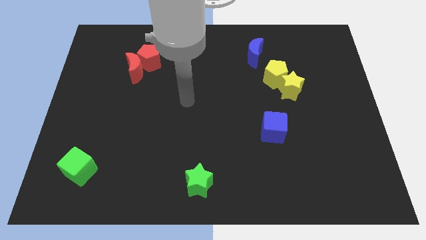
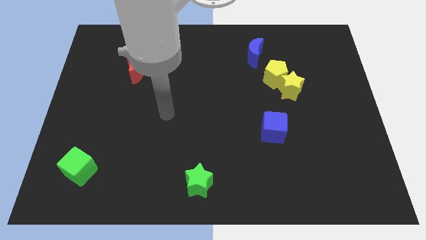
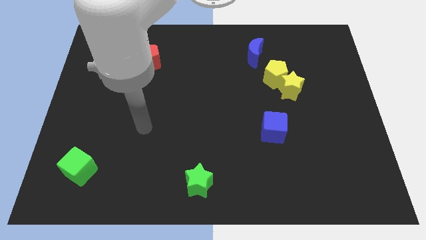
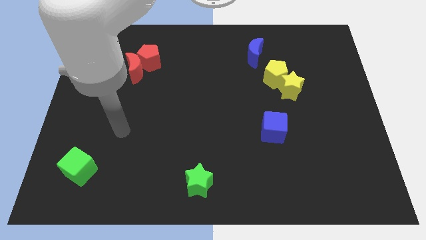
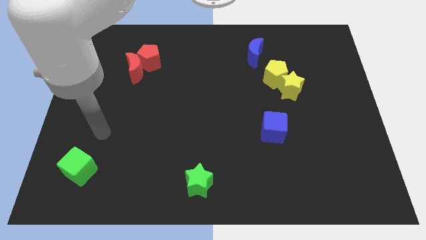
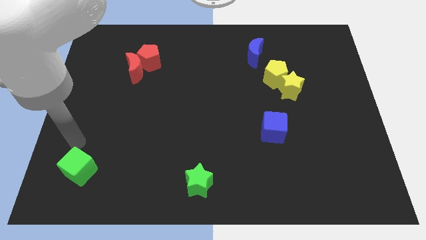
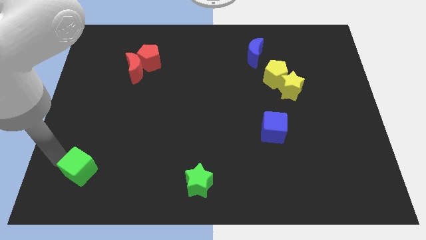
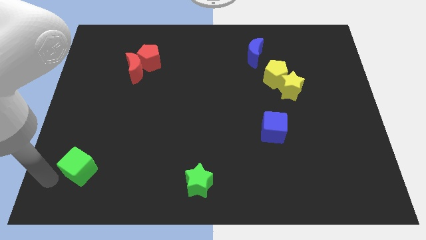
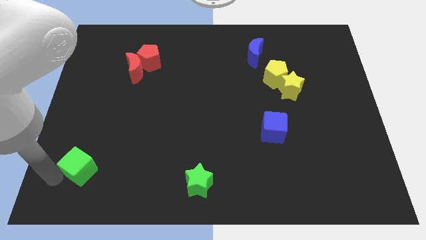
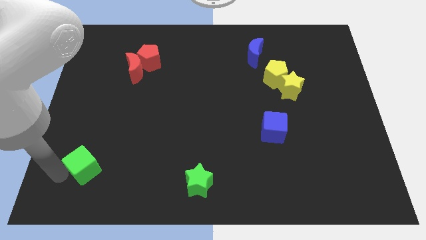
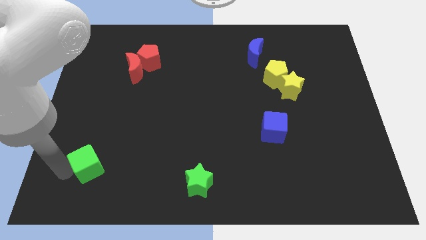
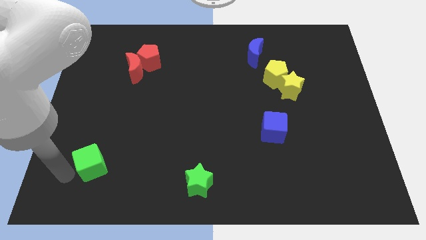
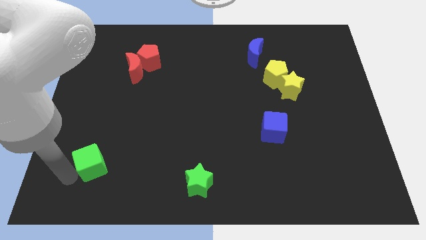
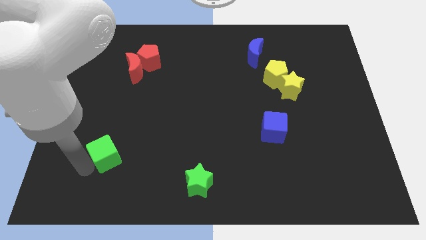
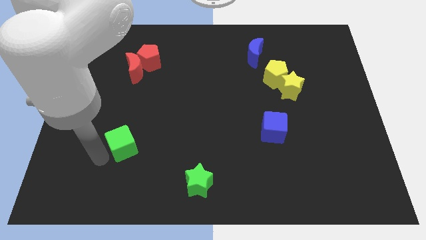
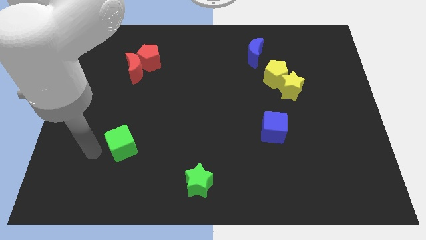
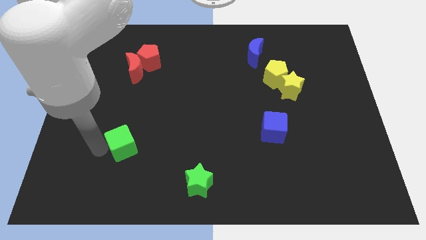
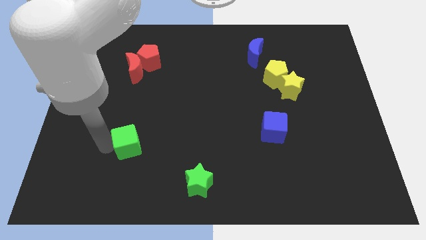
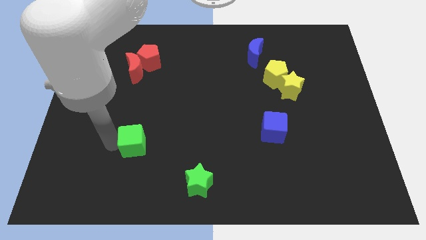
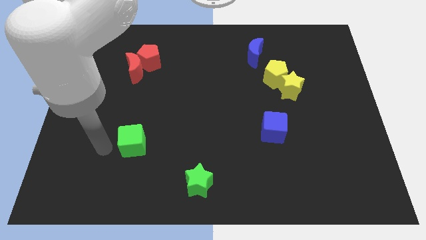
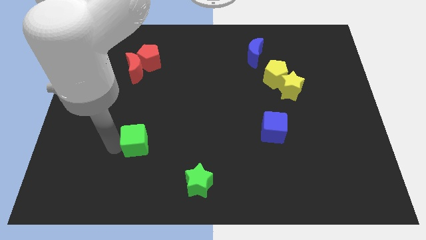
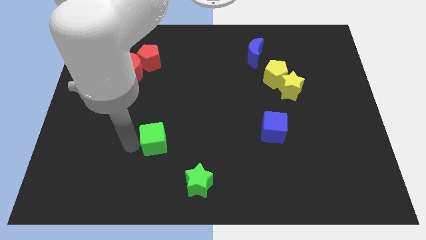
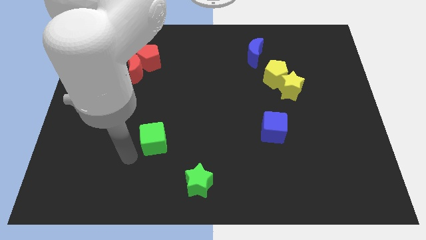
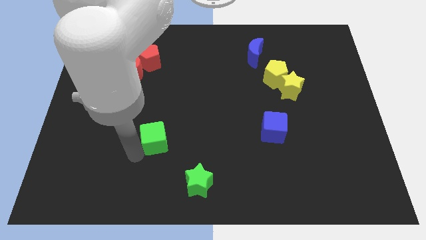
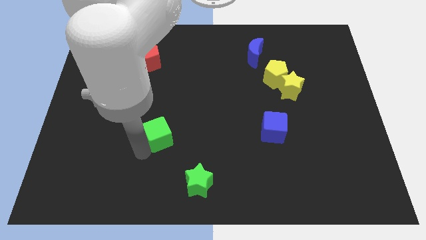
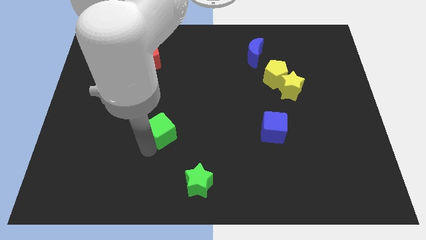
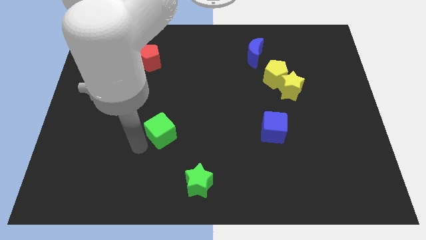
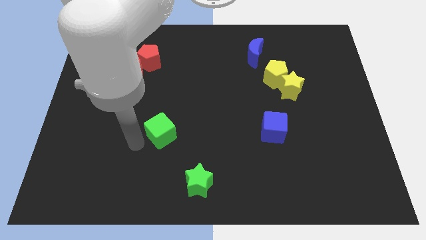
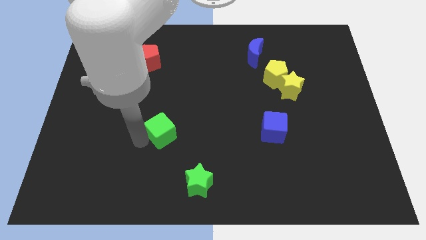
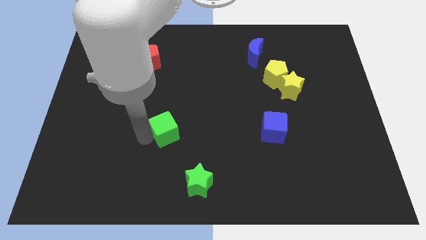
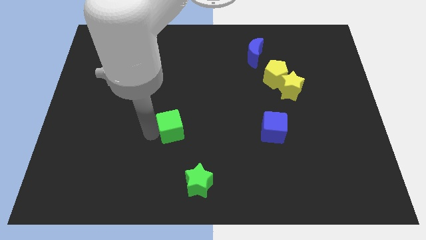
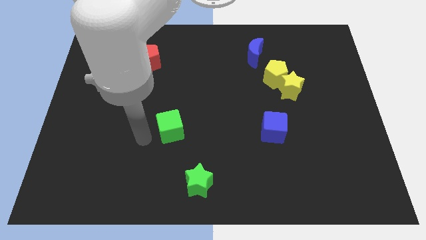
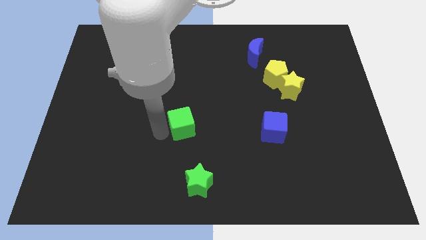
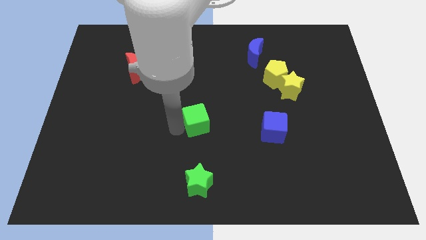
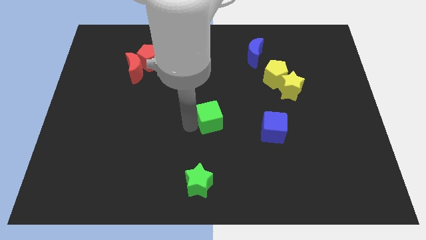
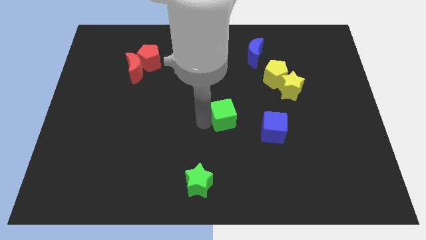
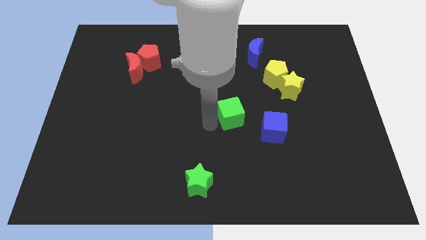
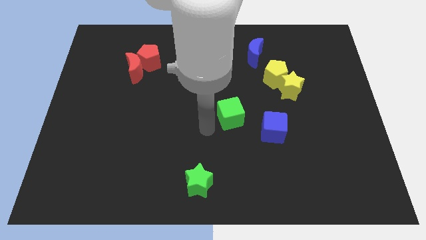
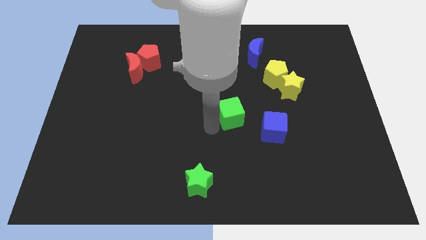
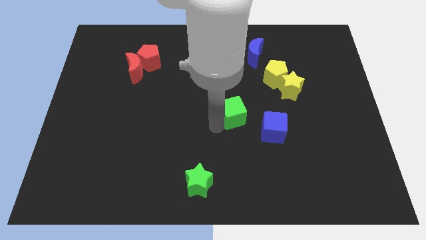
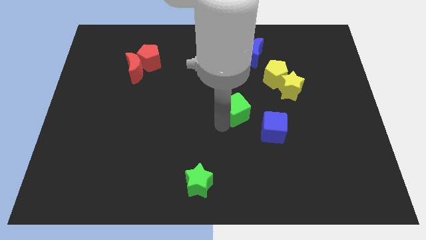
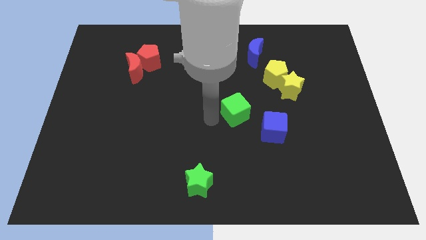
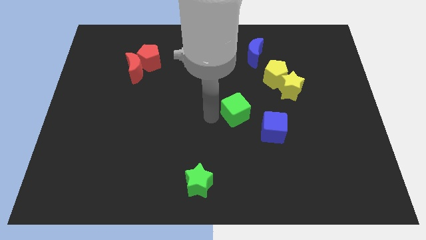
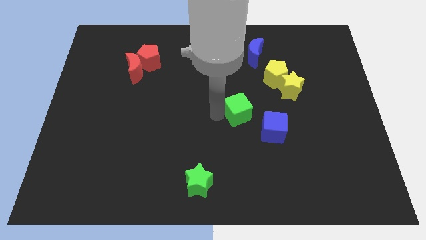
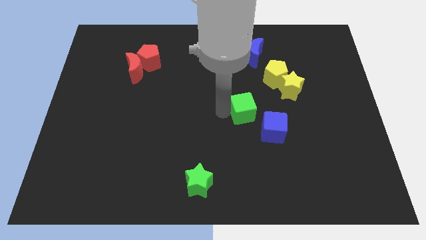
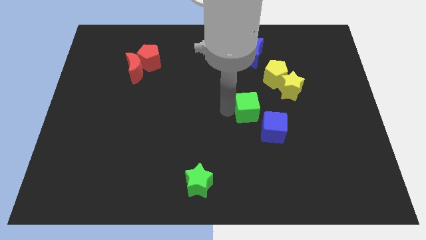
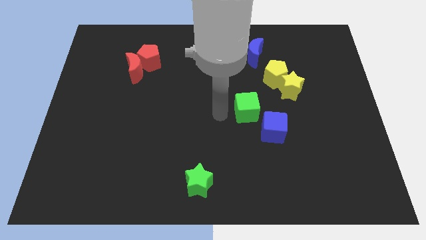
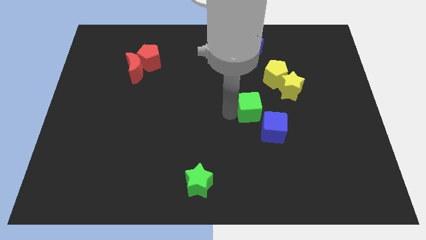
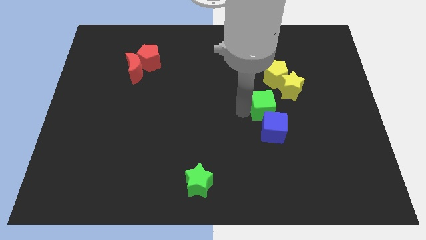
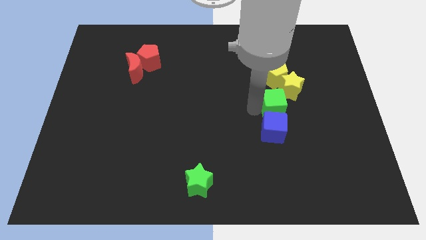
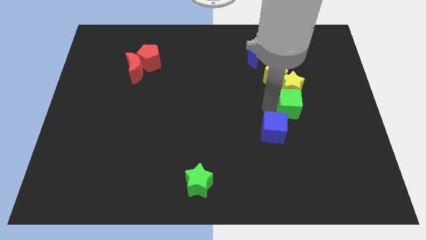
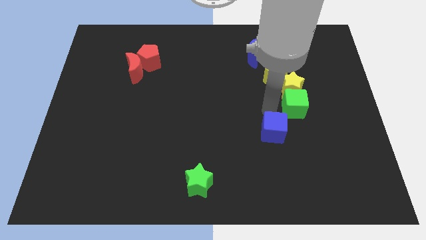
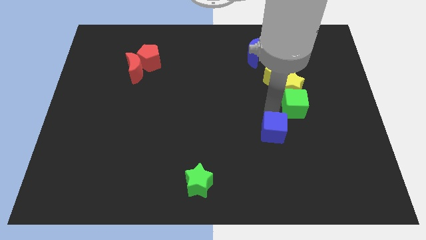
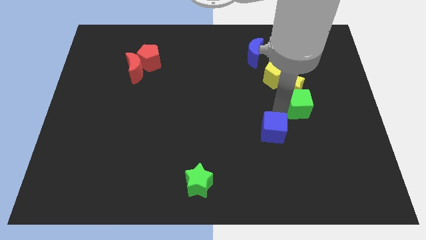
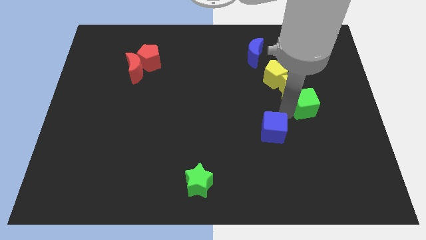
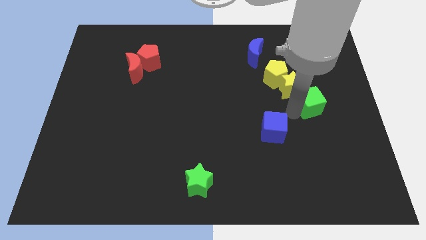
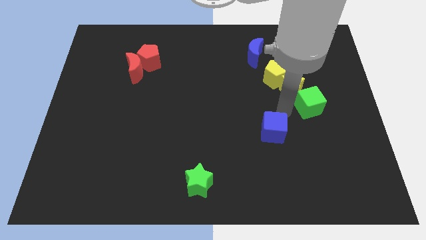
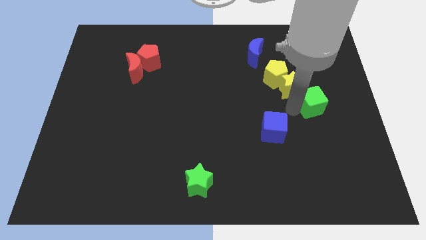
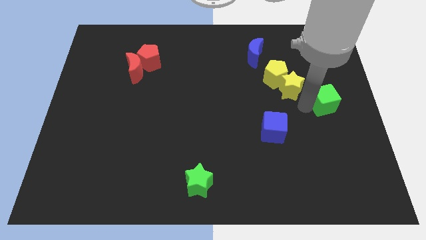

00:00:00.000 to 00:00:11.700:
slide the green cube to the right side of the board
